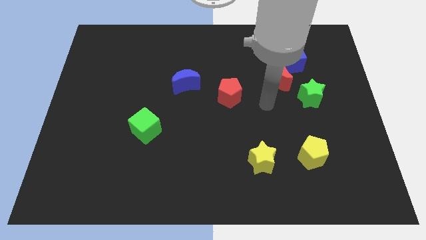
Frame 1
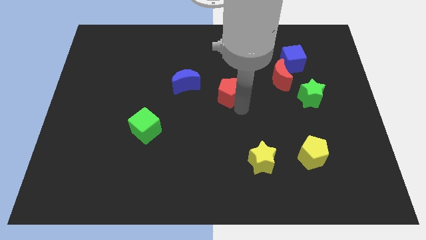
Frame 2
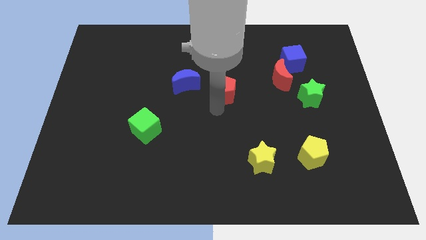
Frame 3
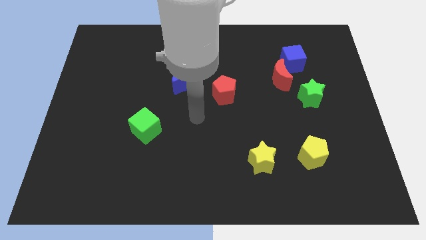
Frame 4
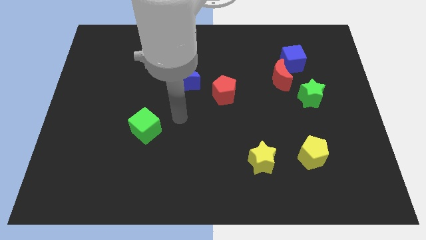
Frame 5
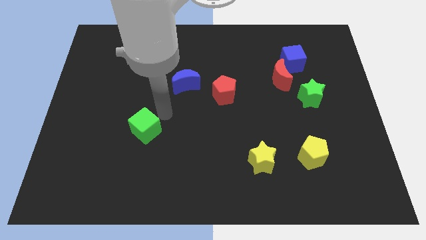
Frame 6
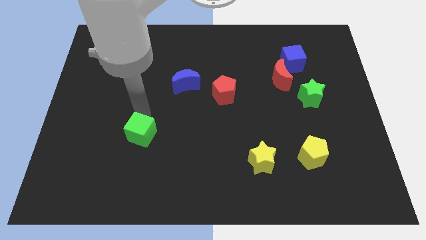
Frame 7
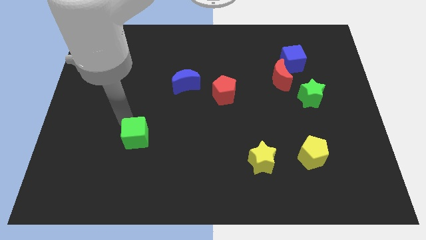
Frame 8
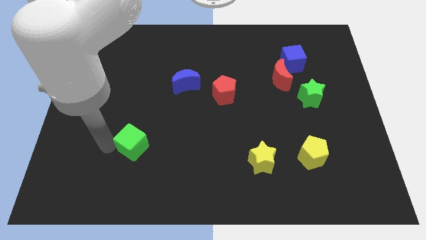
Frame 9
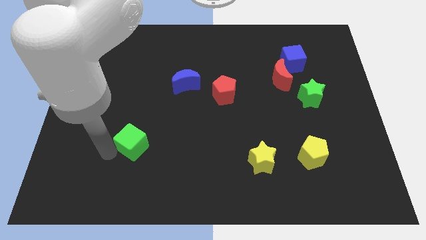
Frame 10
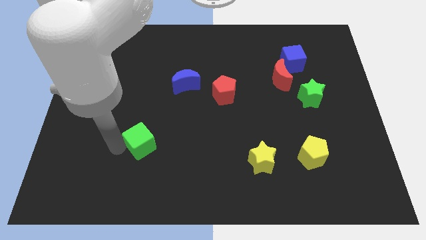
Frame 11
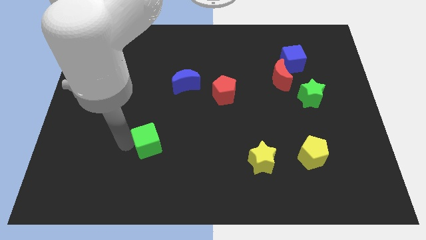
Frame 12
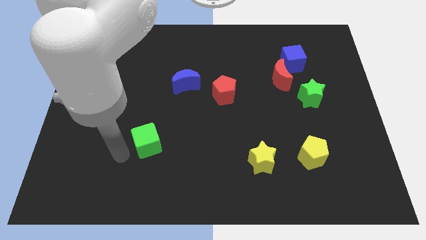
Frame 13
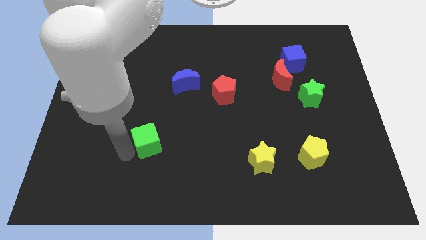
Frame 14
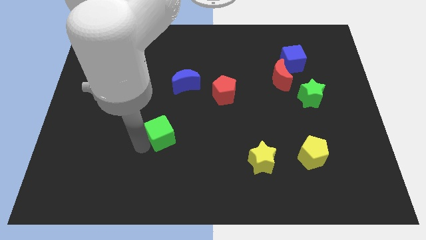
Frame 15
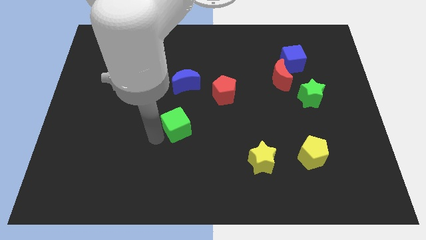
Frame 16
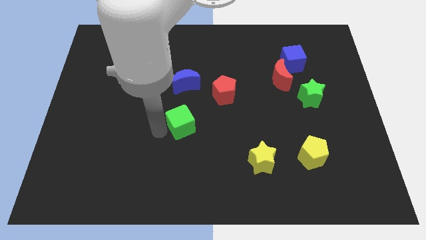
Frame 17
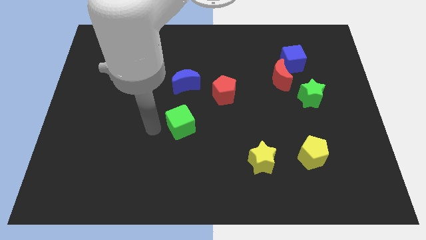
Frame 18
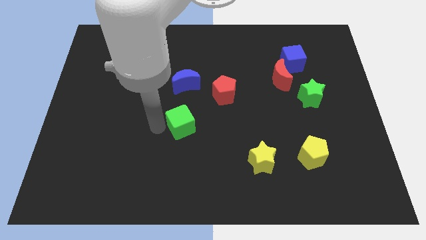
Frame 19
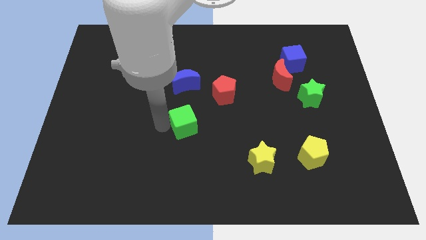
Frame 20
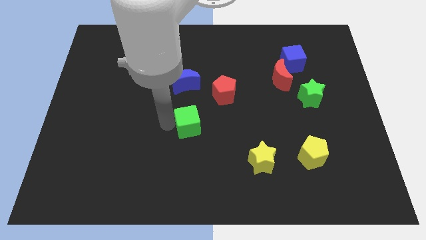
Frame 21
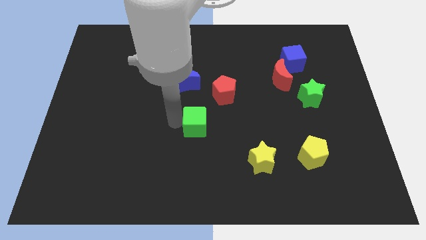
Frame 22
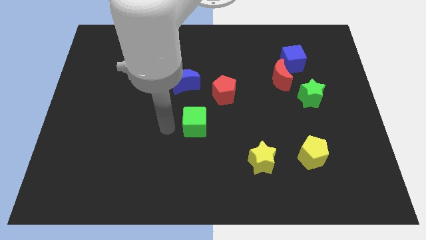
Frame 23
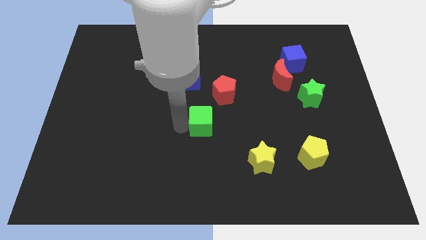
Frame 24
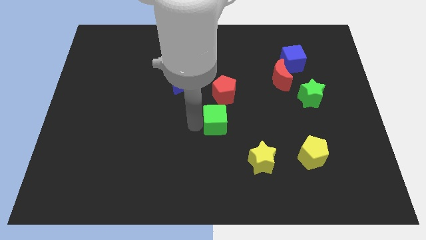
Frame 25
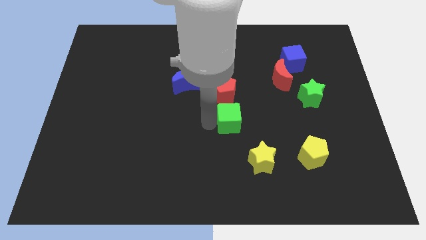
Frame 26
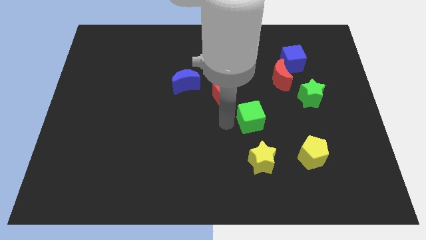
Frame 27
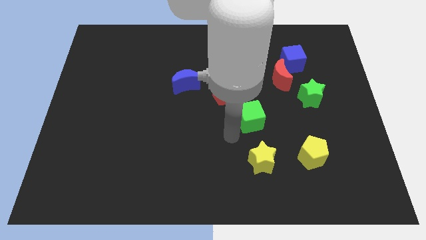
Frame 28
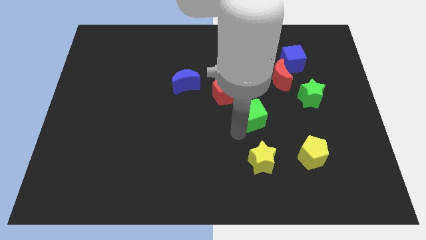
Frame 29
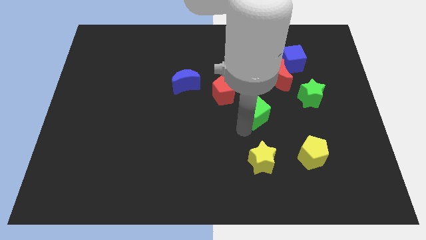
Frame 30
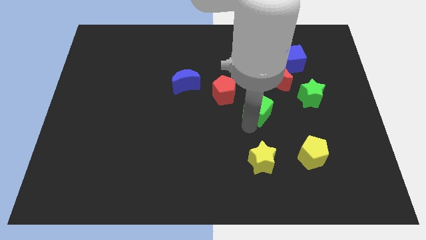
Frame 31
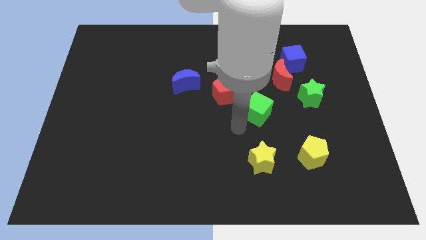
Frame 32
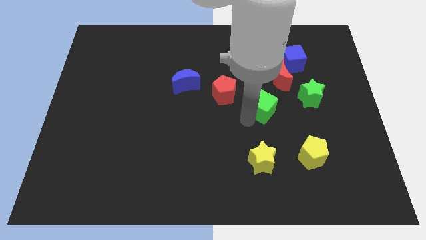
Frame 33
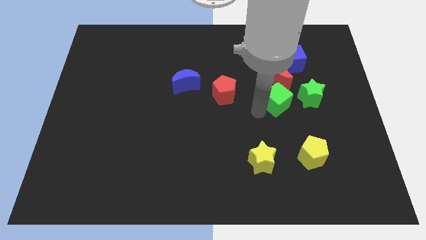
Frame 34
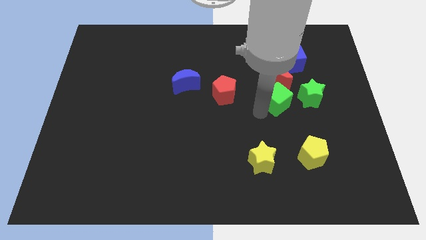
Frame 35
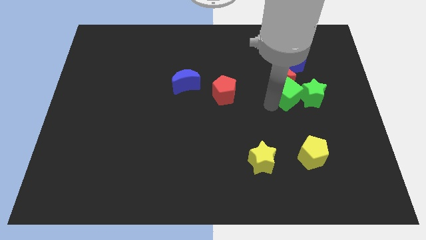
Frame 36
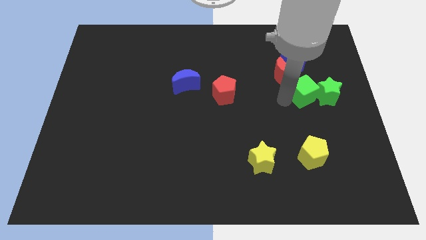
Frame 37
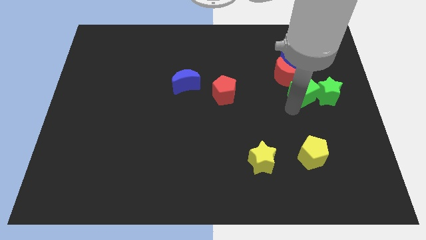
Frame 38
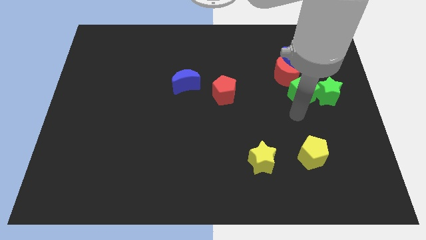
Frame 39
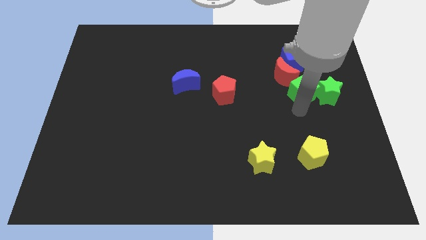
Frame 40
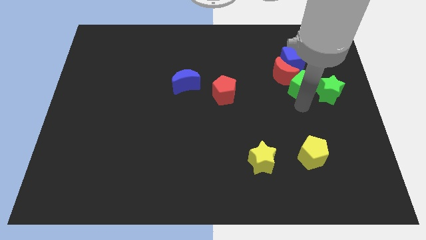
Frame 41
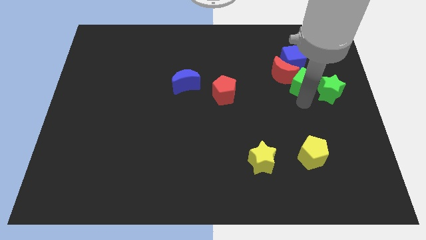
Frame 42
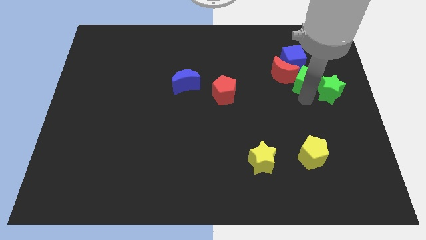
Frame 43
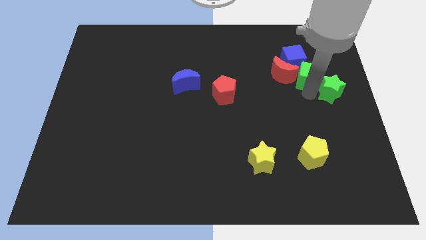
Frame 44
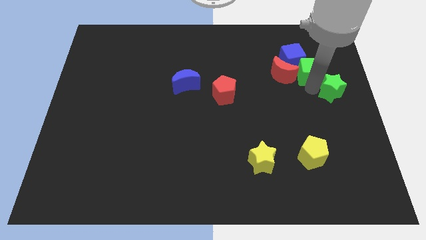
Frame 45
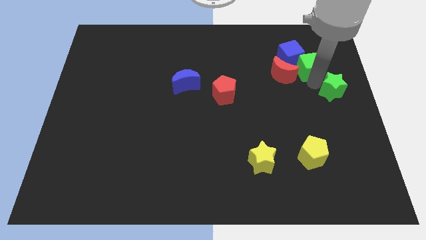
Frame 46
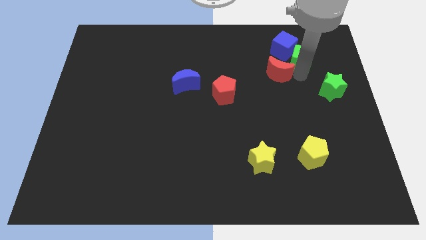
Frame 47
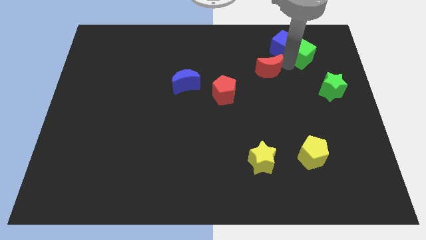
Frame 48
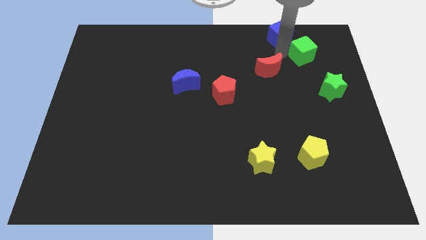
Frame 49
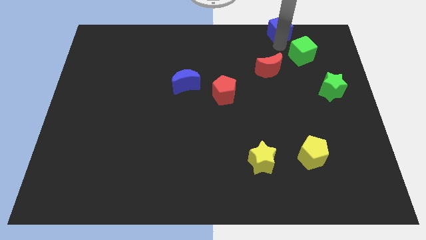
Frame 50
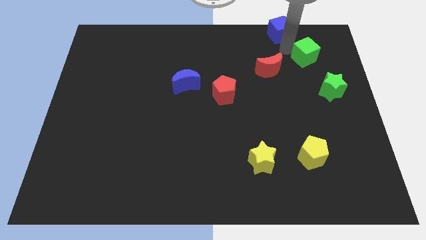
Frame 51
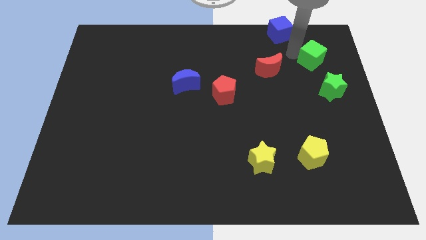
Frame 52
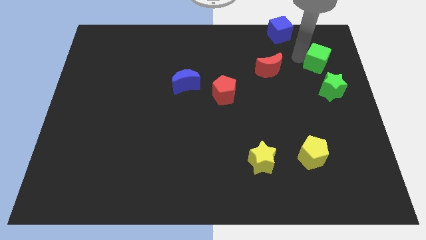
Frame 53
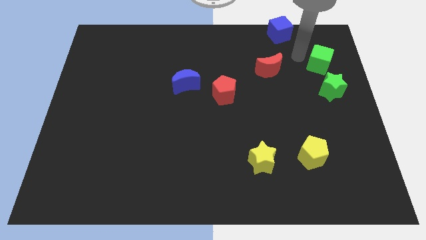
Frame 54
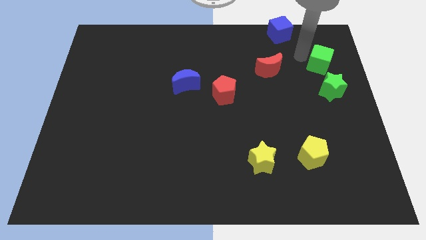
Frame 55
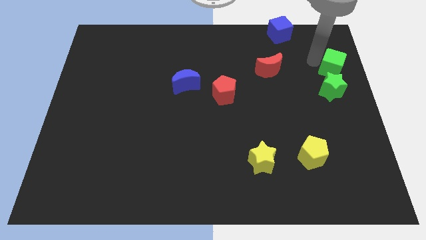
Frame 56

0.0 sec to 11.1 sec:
move the green cube to the top right of the green star

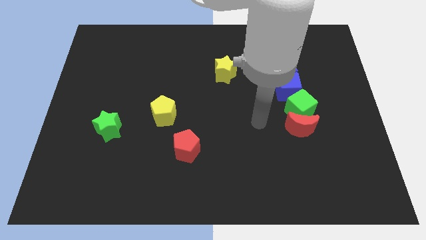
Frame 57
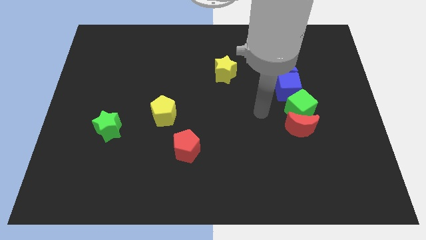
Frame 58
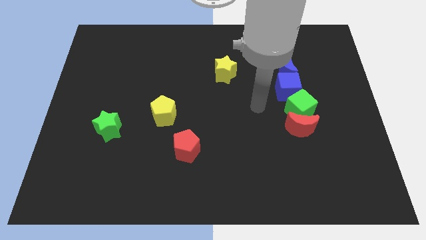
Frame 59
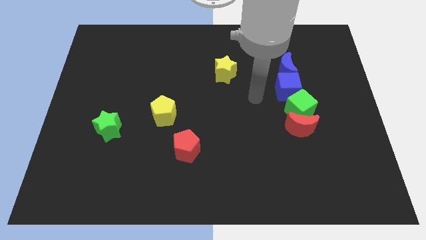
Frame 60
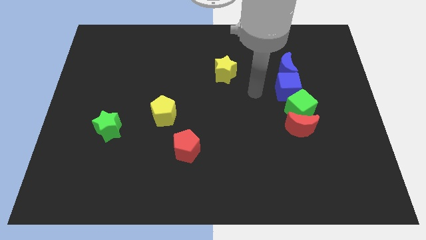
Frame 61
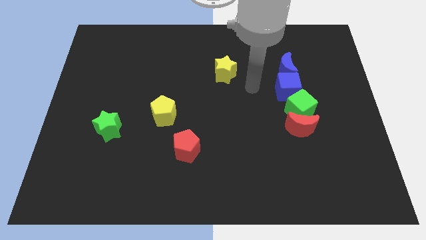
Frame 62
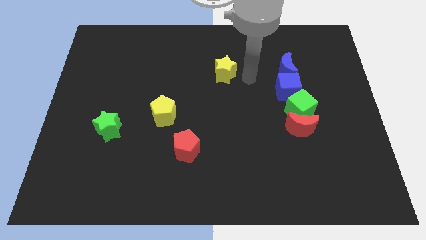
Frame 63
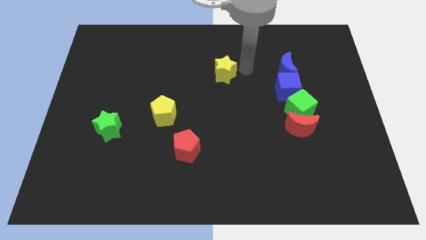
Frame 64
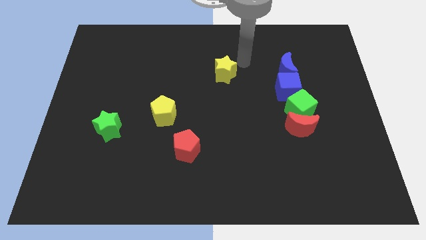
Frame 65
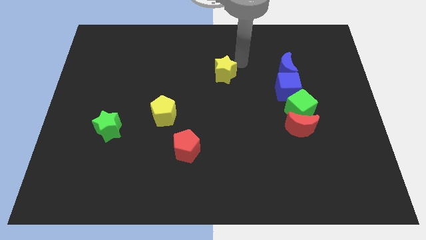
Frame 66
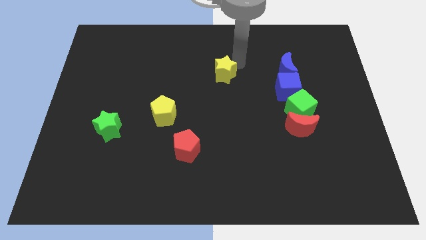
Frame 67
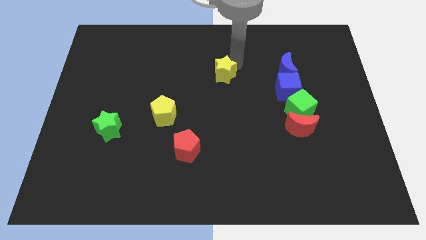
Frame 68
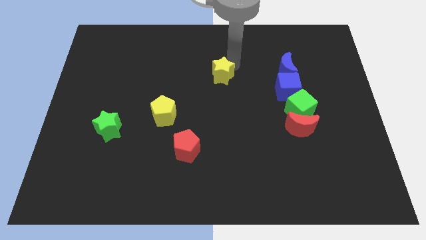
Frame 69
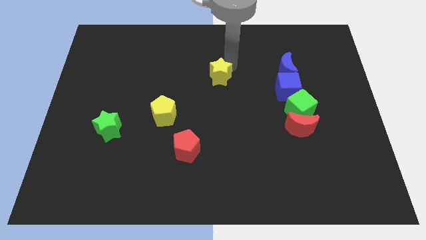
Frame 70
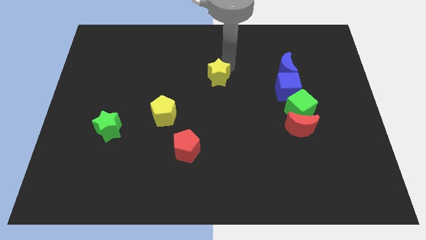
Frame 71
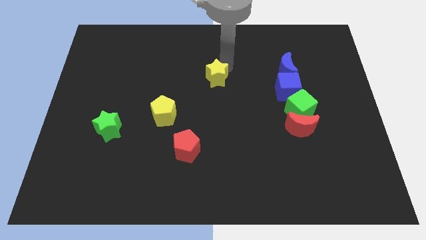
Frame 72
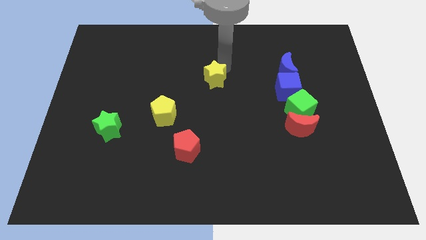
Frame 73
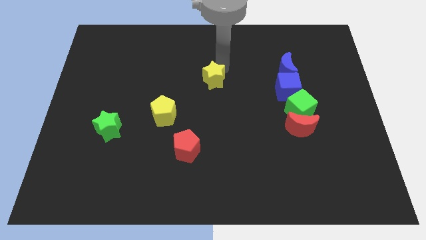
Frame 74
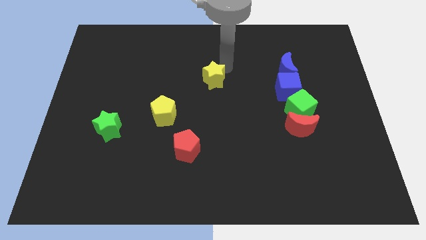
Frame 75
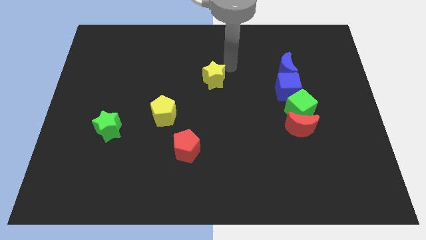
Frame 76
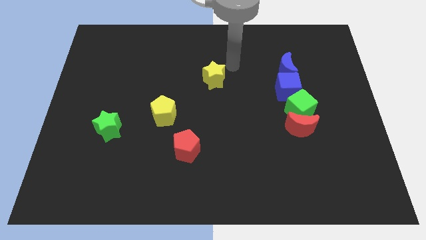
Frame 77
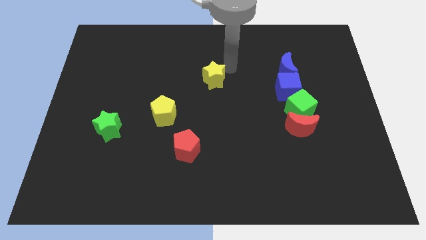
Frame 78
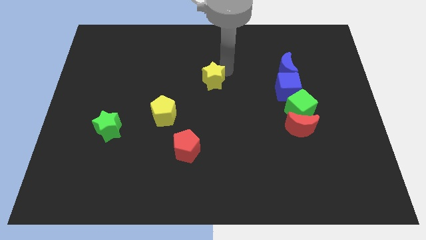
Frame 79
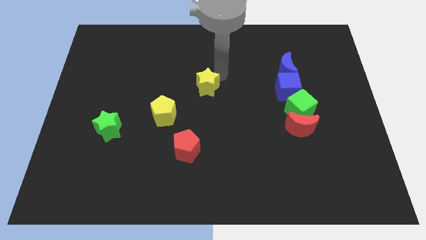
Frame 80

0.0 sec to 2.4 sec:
put the yellow star to the top right side of the yellow pentagon
